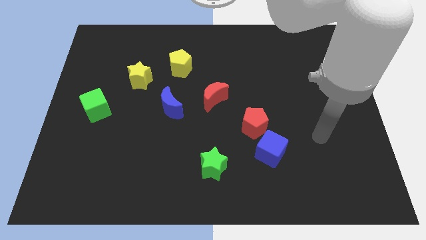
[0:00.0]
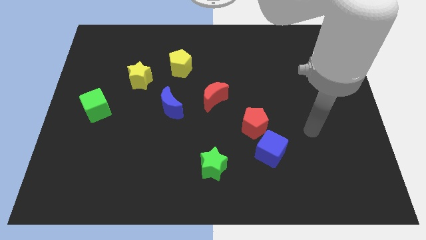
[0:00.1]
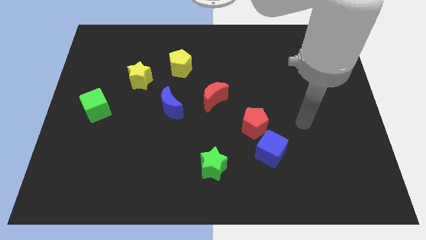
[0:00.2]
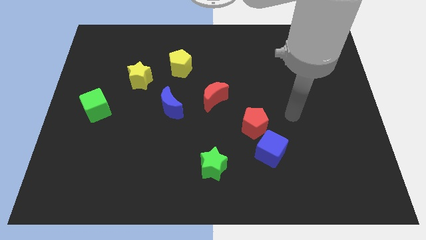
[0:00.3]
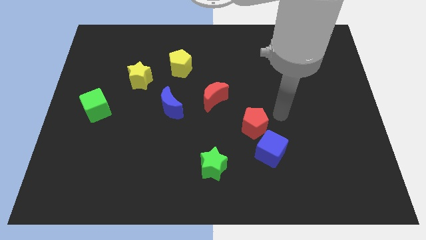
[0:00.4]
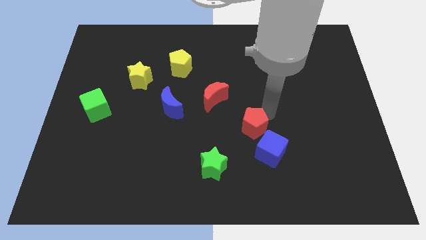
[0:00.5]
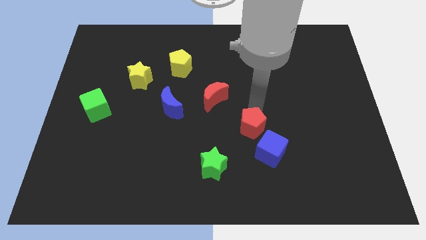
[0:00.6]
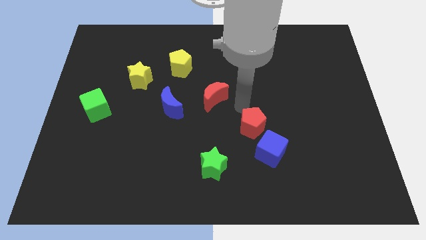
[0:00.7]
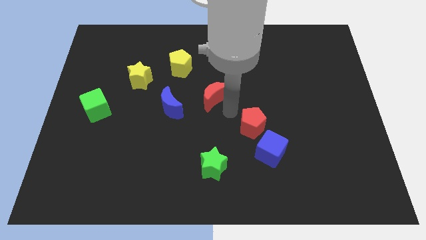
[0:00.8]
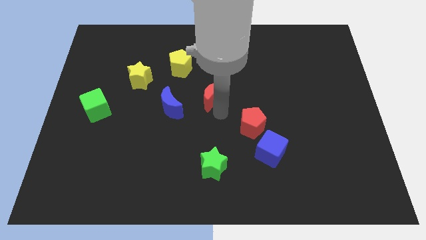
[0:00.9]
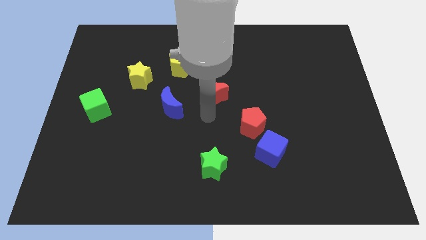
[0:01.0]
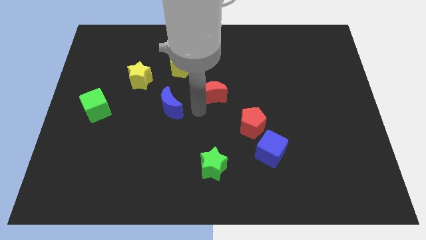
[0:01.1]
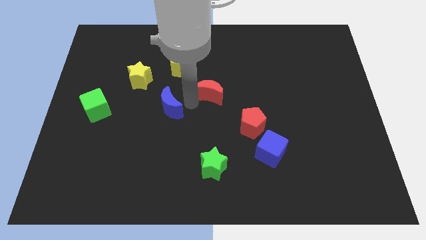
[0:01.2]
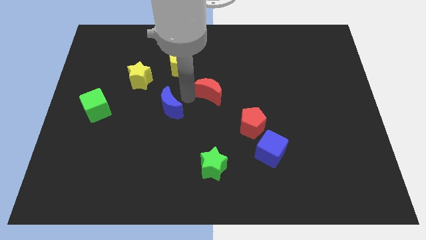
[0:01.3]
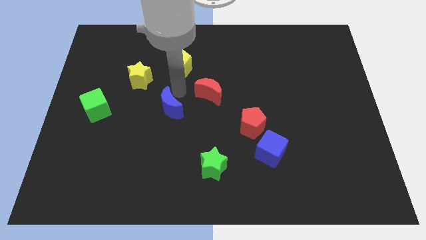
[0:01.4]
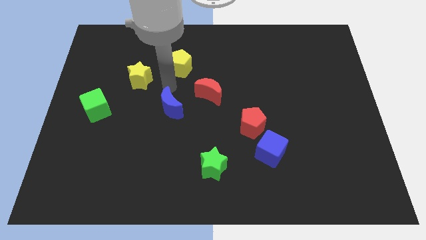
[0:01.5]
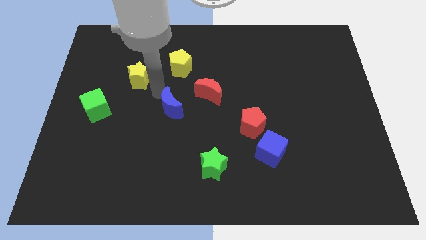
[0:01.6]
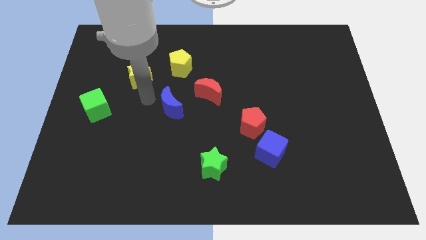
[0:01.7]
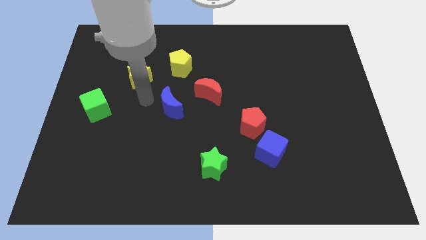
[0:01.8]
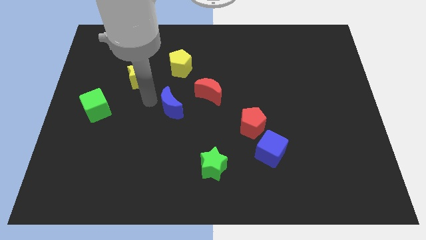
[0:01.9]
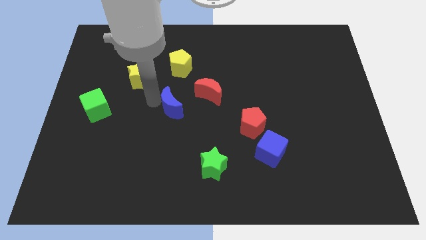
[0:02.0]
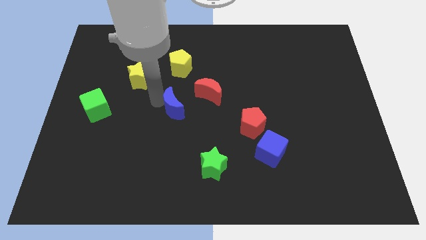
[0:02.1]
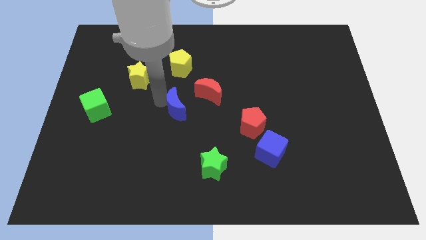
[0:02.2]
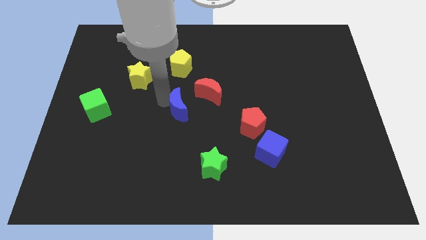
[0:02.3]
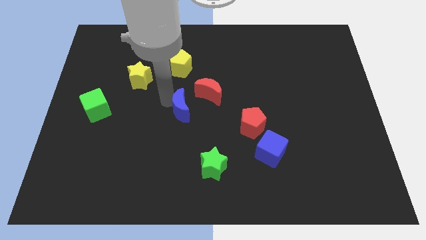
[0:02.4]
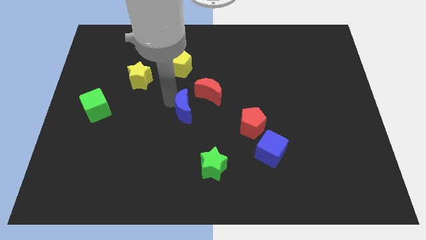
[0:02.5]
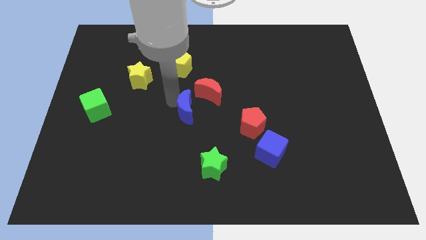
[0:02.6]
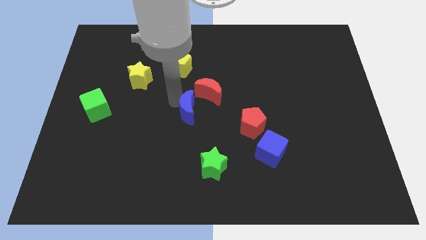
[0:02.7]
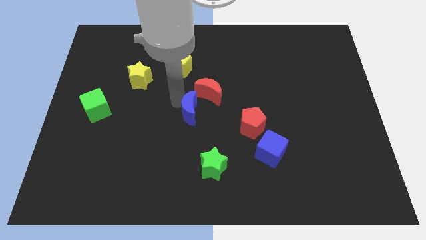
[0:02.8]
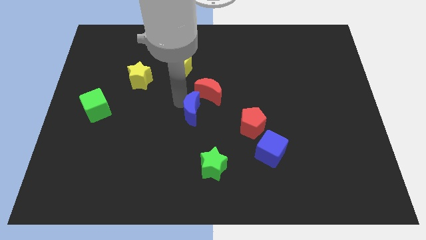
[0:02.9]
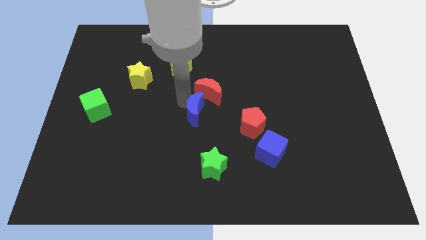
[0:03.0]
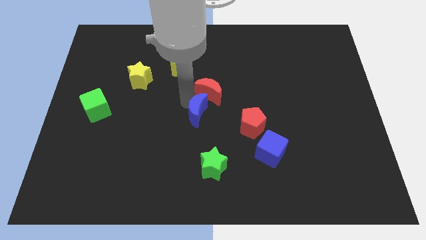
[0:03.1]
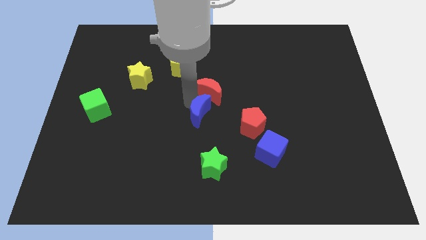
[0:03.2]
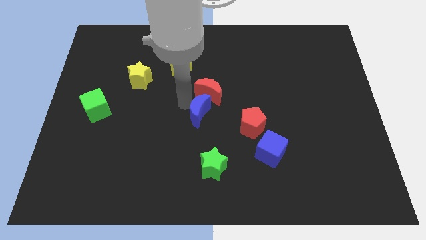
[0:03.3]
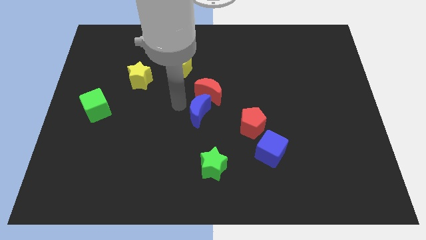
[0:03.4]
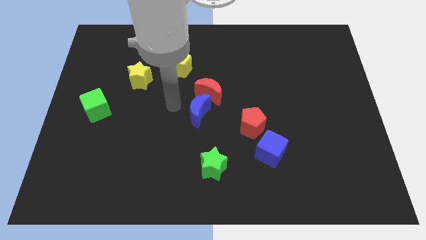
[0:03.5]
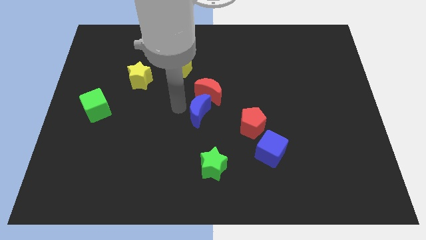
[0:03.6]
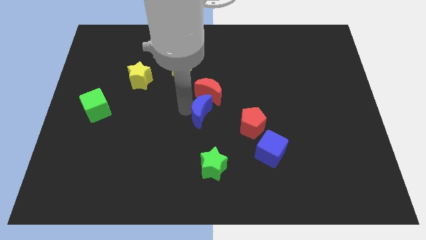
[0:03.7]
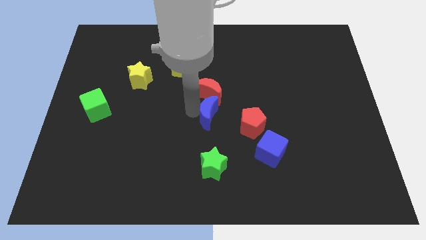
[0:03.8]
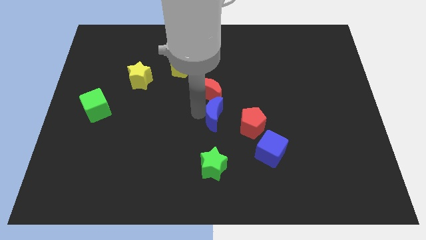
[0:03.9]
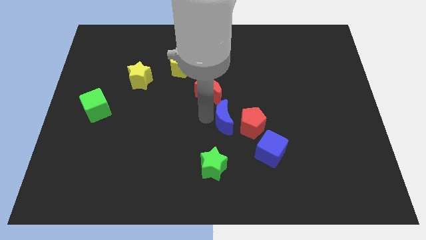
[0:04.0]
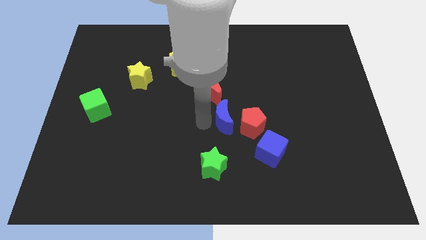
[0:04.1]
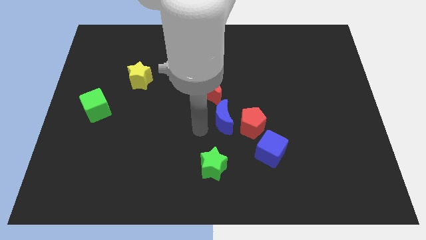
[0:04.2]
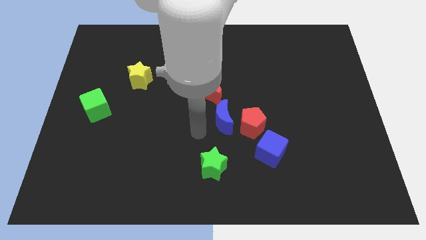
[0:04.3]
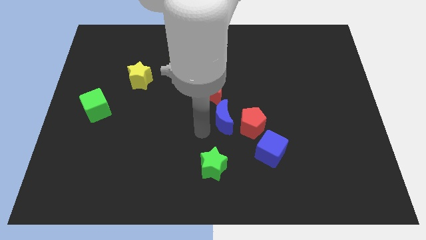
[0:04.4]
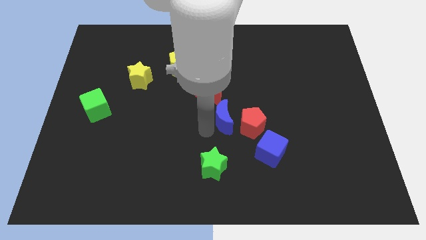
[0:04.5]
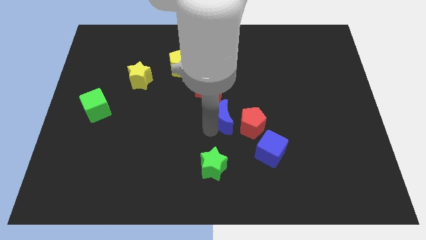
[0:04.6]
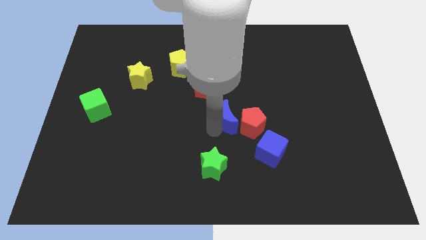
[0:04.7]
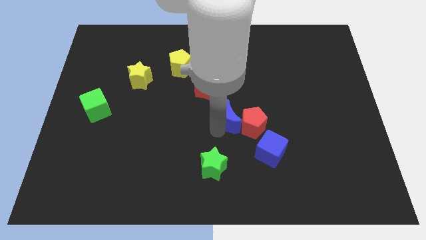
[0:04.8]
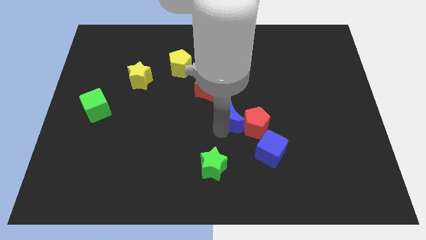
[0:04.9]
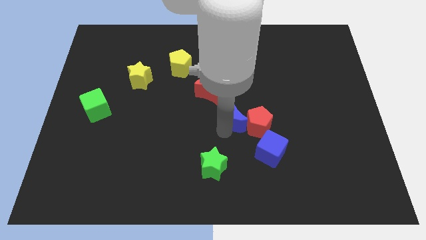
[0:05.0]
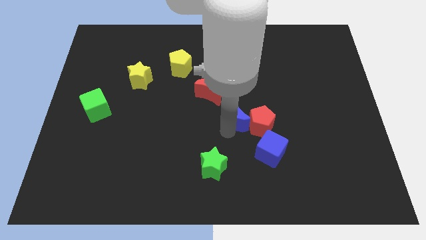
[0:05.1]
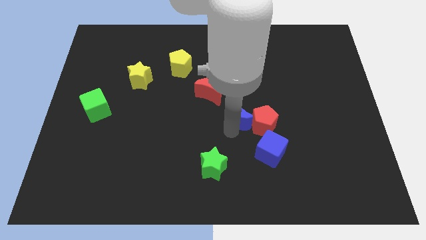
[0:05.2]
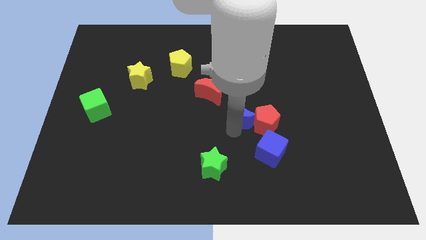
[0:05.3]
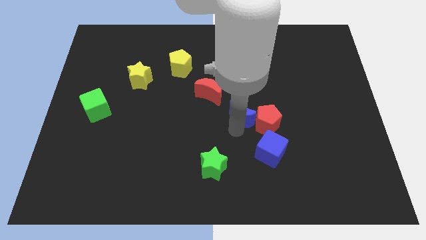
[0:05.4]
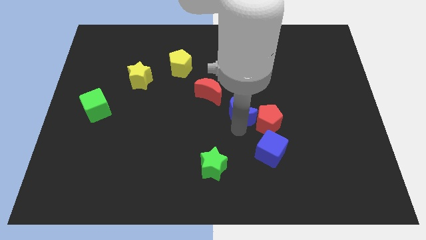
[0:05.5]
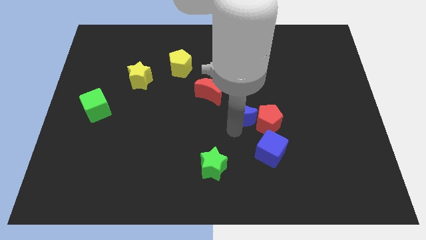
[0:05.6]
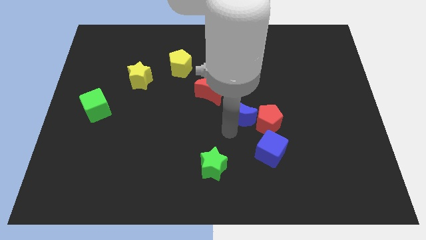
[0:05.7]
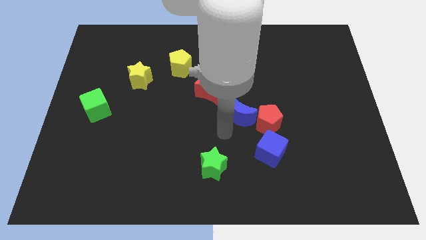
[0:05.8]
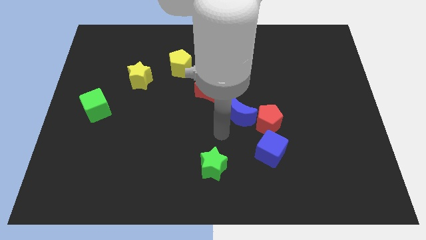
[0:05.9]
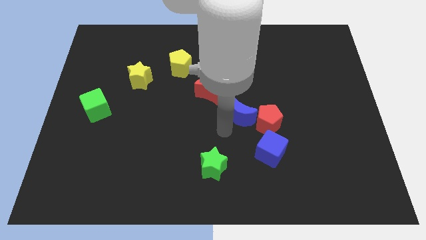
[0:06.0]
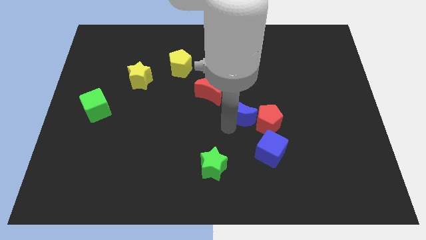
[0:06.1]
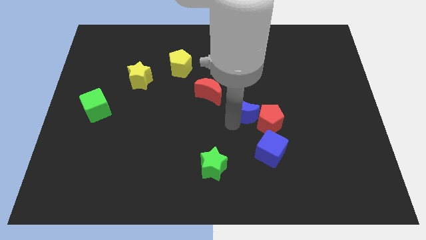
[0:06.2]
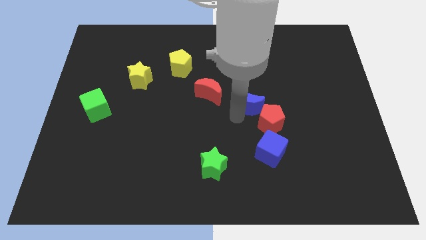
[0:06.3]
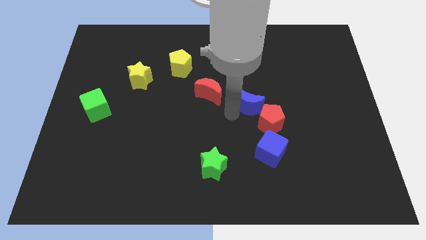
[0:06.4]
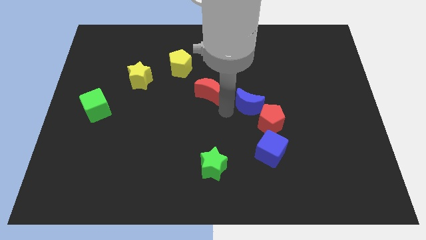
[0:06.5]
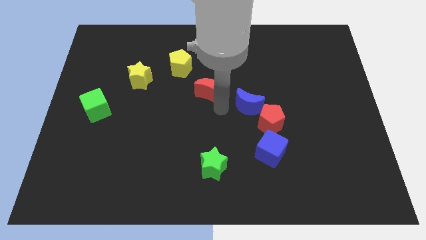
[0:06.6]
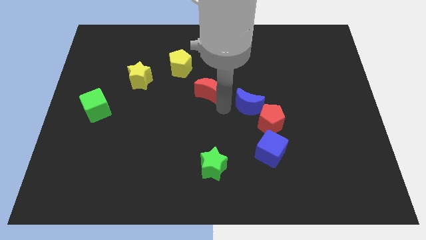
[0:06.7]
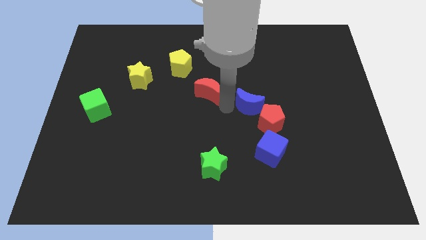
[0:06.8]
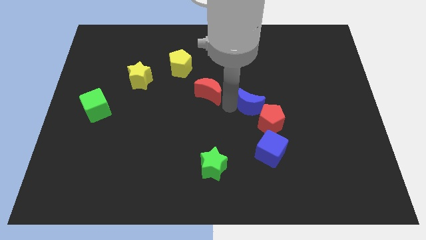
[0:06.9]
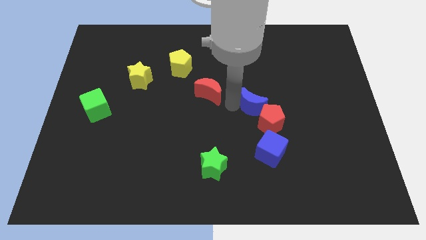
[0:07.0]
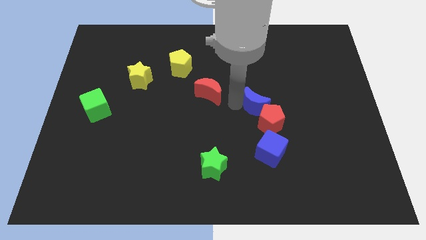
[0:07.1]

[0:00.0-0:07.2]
push the blue moon to the right

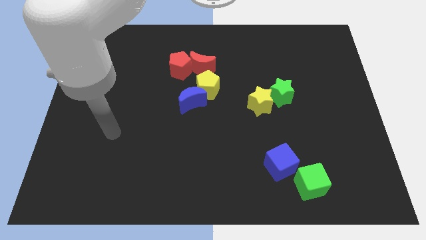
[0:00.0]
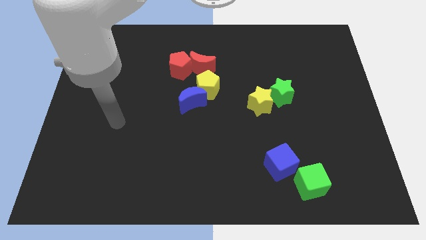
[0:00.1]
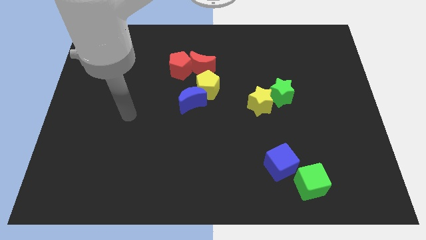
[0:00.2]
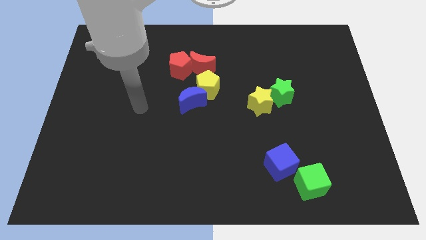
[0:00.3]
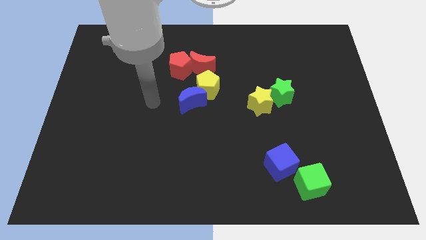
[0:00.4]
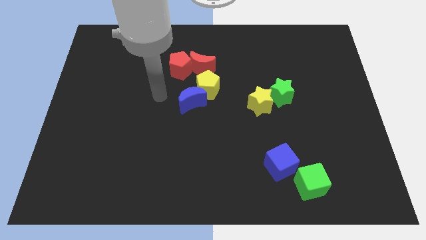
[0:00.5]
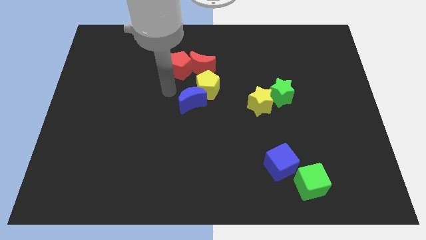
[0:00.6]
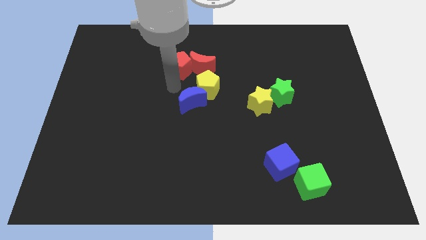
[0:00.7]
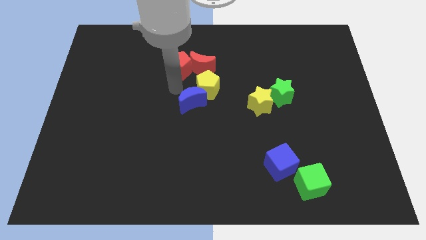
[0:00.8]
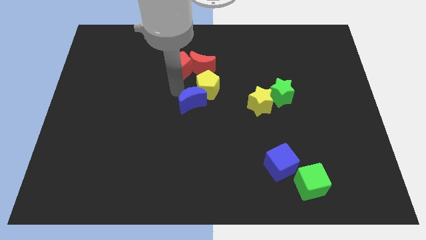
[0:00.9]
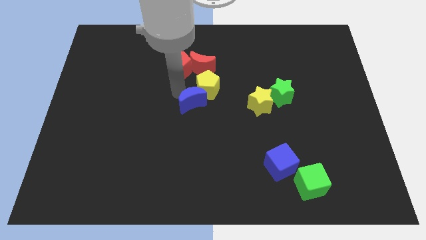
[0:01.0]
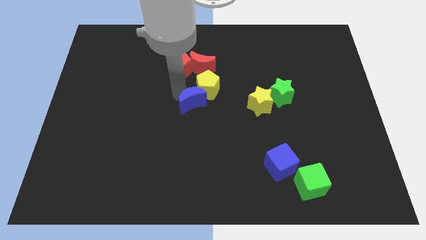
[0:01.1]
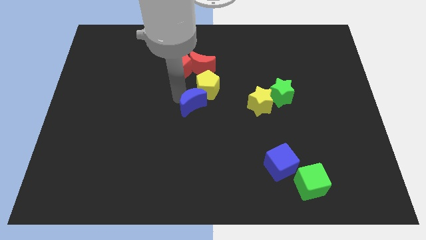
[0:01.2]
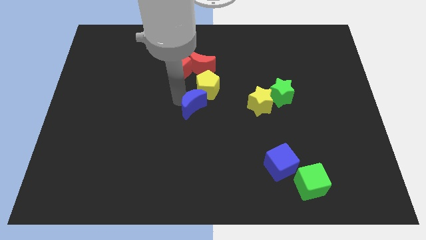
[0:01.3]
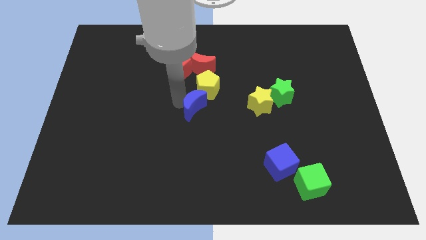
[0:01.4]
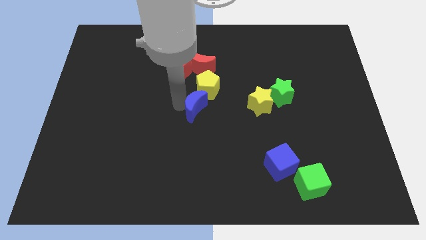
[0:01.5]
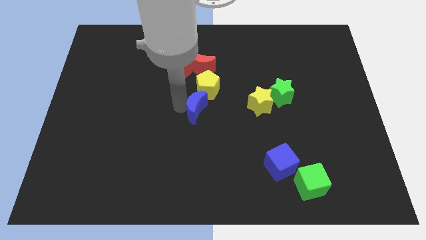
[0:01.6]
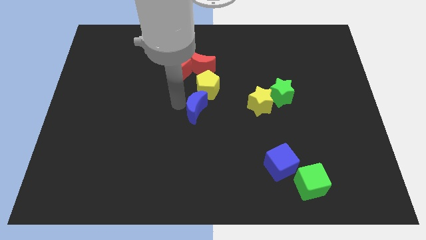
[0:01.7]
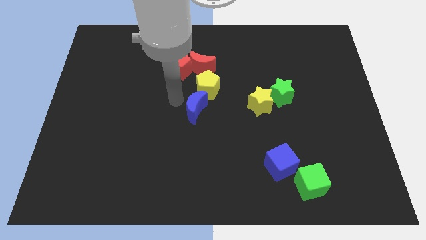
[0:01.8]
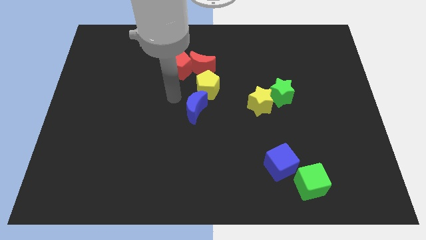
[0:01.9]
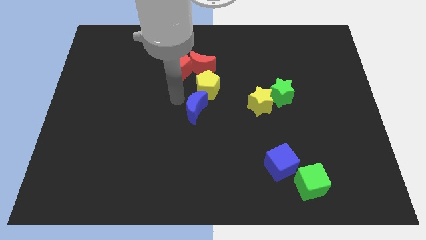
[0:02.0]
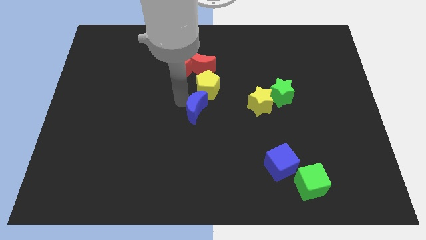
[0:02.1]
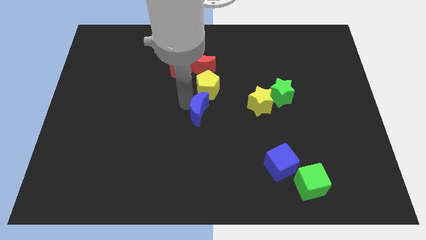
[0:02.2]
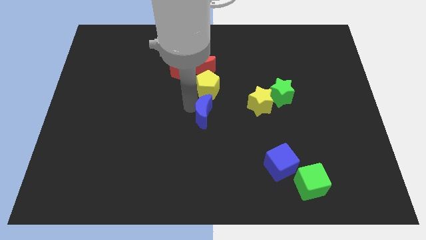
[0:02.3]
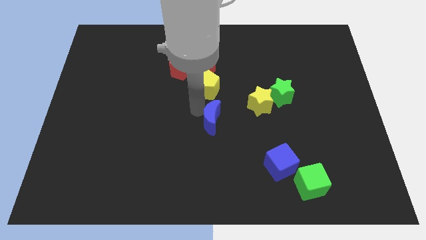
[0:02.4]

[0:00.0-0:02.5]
push the blue moon slightly down and then to the right
